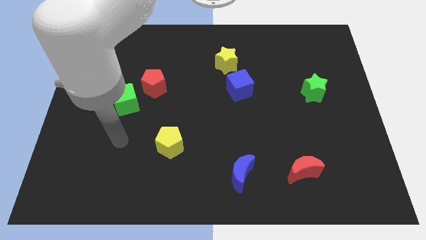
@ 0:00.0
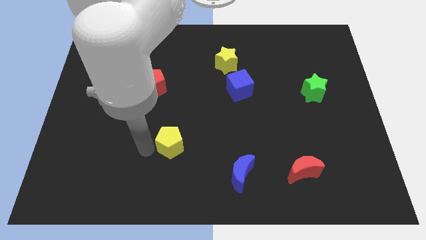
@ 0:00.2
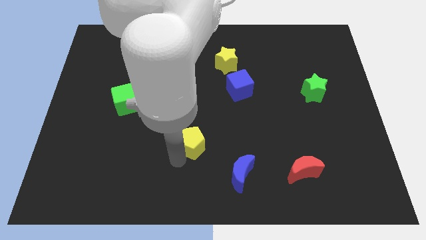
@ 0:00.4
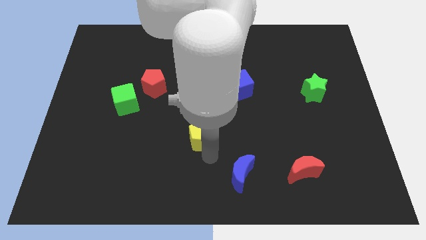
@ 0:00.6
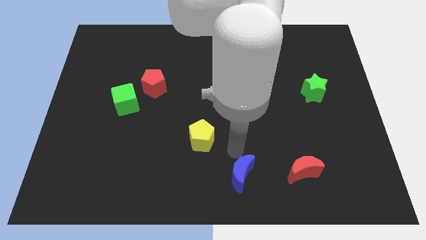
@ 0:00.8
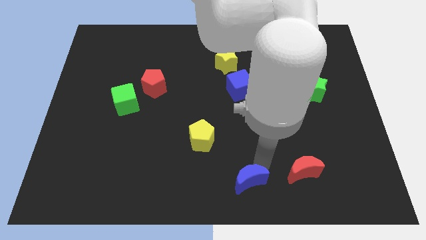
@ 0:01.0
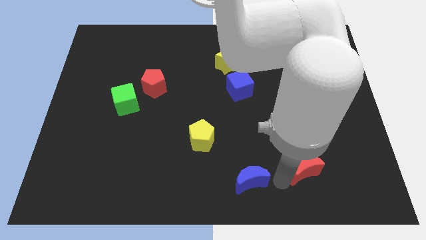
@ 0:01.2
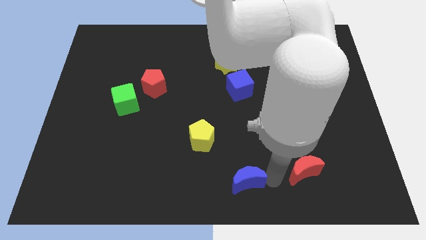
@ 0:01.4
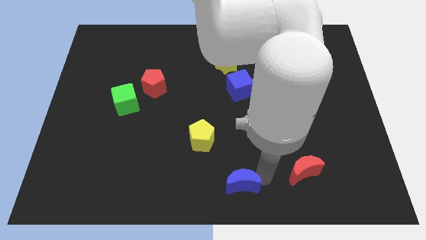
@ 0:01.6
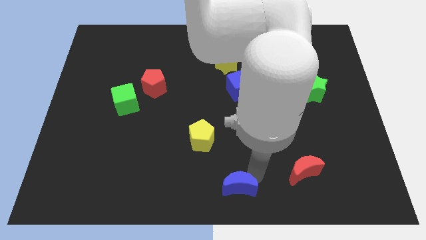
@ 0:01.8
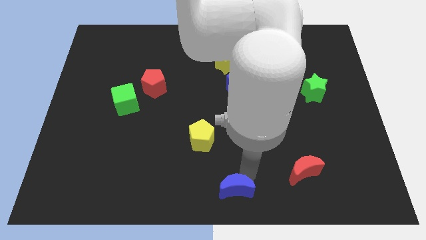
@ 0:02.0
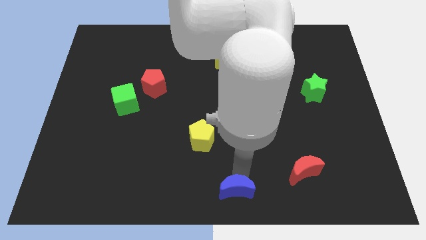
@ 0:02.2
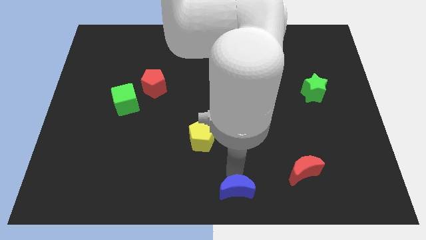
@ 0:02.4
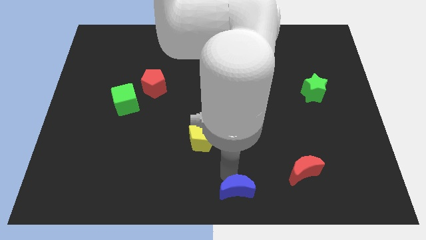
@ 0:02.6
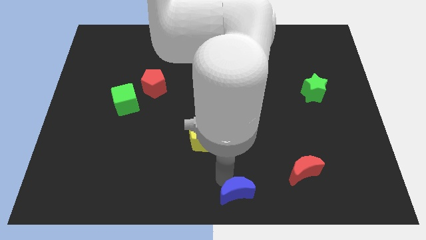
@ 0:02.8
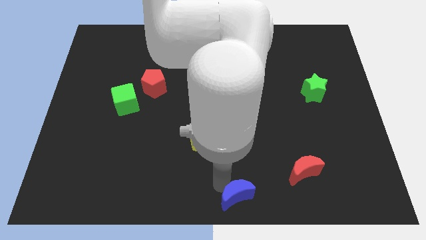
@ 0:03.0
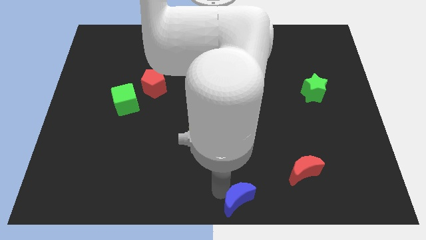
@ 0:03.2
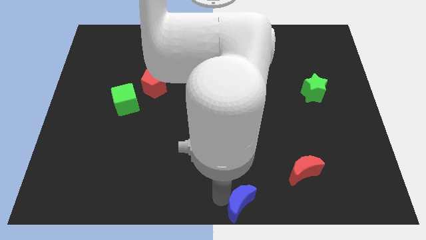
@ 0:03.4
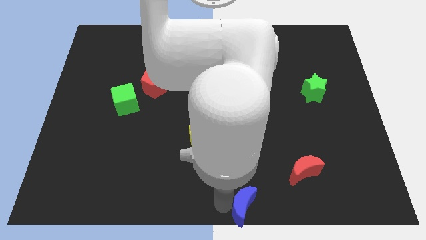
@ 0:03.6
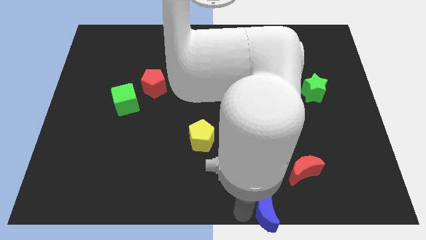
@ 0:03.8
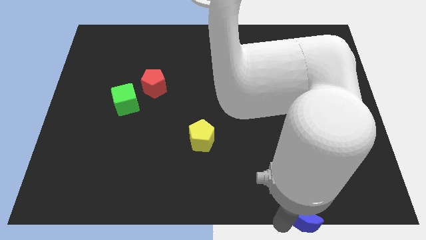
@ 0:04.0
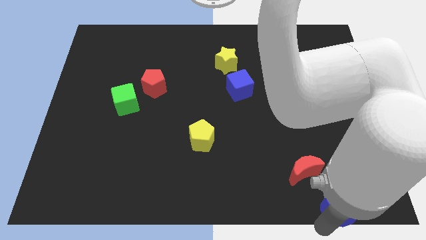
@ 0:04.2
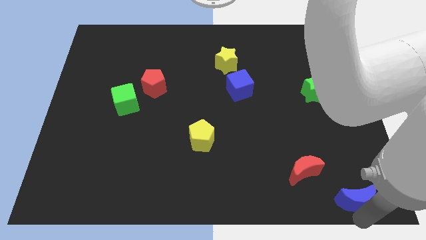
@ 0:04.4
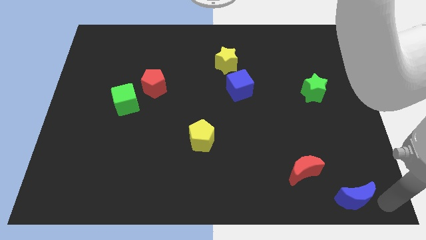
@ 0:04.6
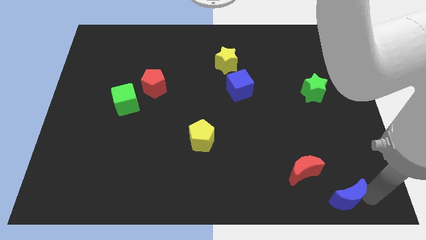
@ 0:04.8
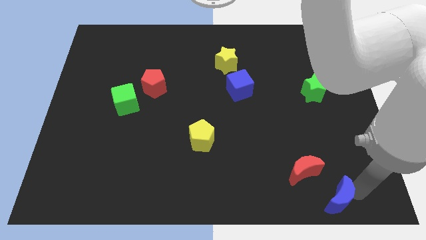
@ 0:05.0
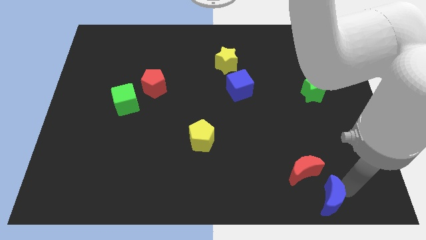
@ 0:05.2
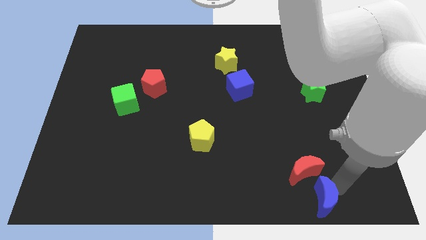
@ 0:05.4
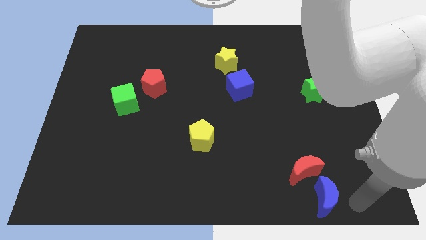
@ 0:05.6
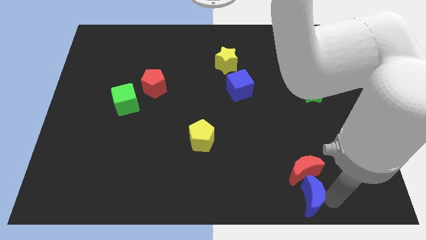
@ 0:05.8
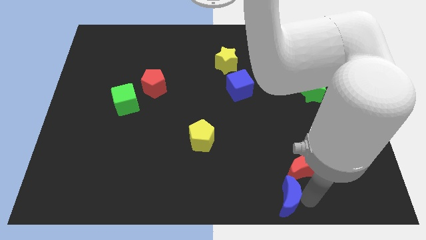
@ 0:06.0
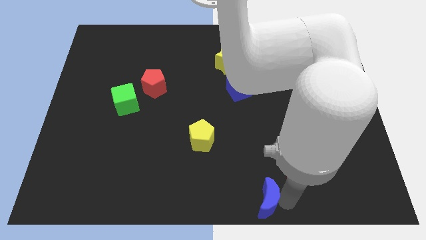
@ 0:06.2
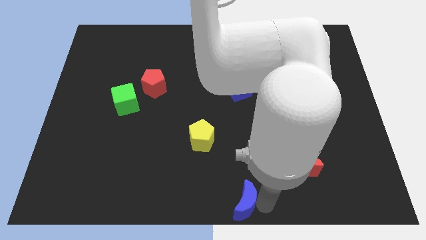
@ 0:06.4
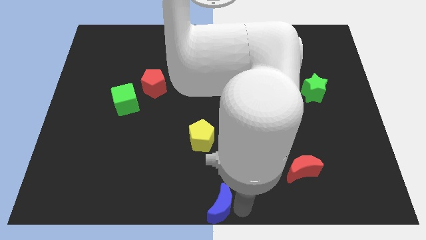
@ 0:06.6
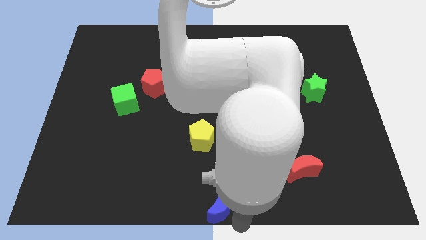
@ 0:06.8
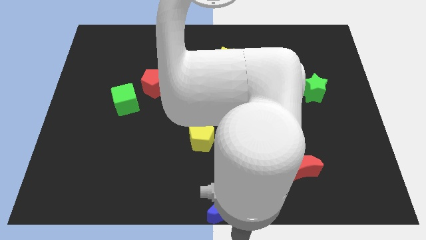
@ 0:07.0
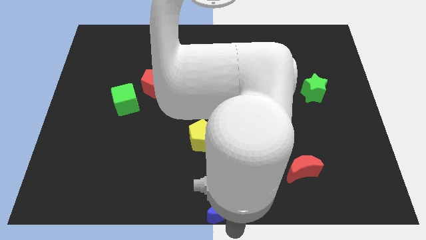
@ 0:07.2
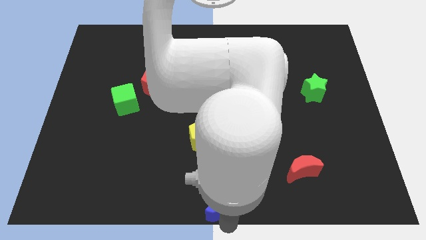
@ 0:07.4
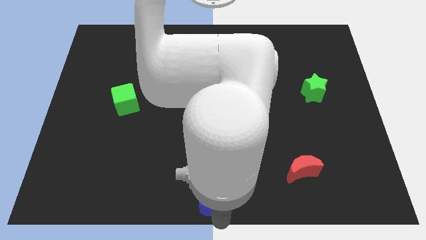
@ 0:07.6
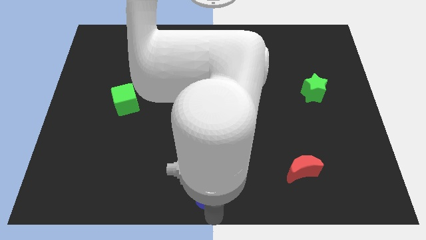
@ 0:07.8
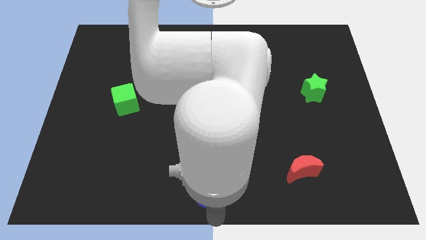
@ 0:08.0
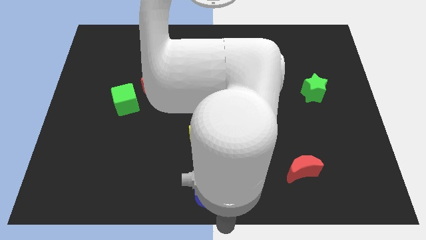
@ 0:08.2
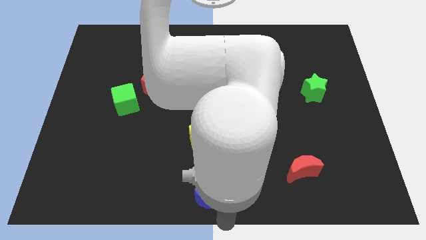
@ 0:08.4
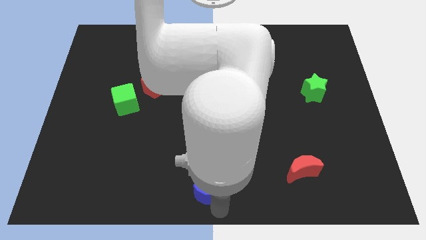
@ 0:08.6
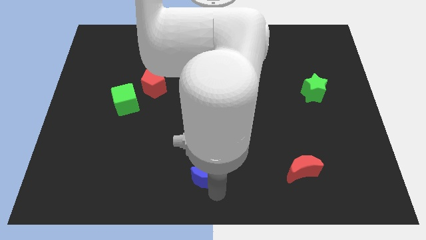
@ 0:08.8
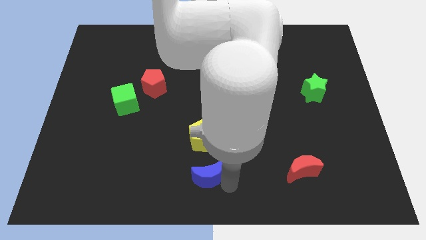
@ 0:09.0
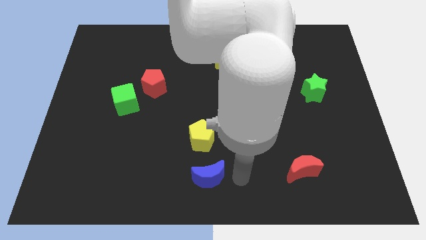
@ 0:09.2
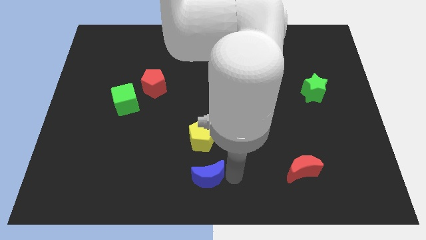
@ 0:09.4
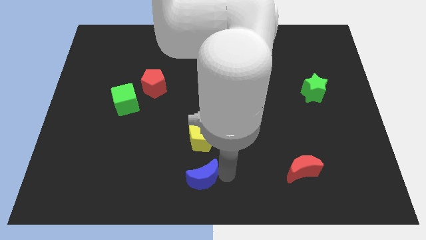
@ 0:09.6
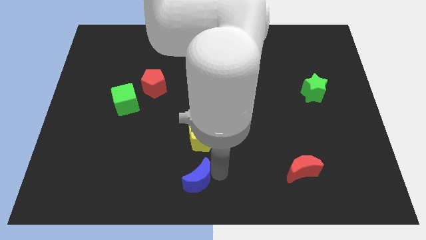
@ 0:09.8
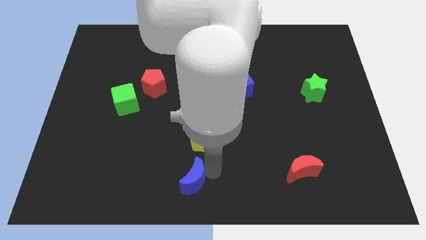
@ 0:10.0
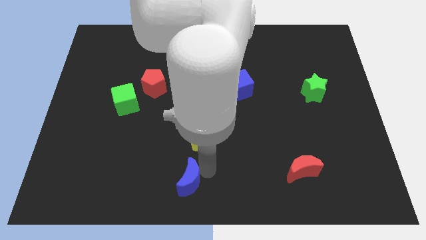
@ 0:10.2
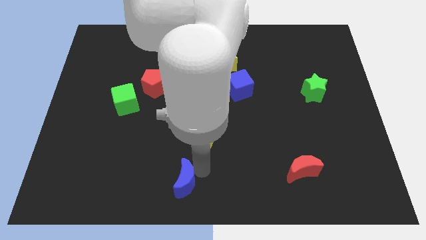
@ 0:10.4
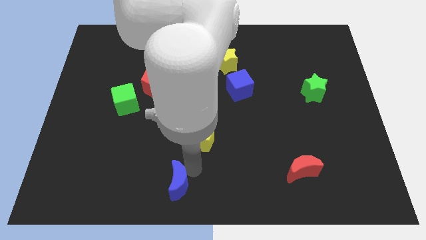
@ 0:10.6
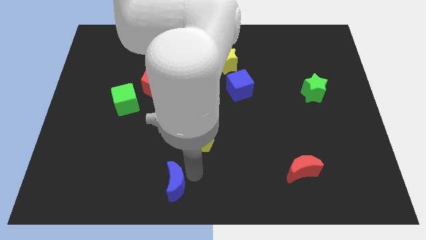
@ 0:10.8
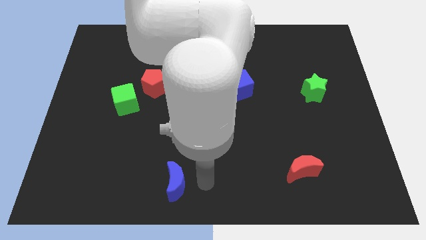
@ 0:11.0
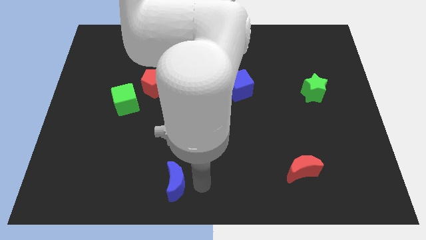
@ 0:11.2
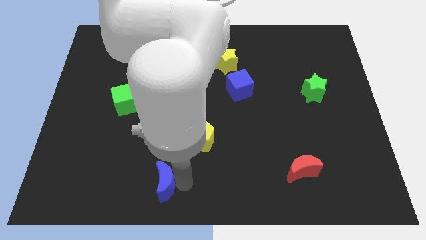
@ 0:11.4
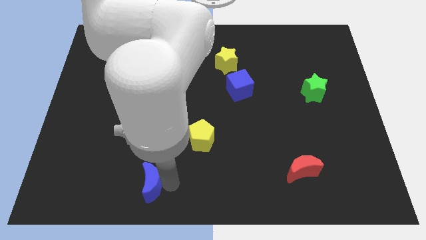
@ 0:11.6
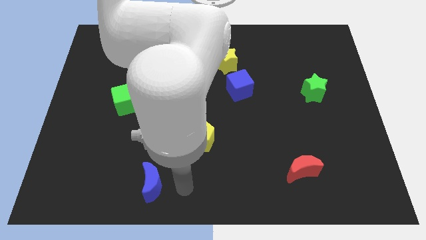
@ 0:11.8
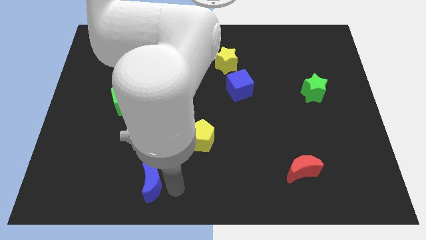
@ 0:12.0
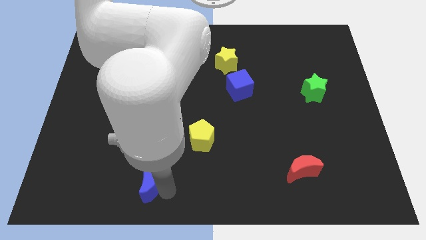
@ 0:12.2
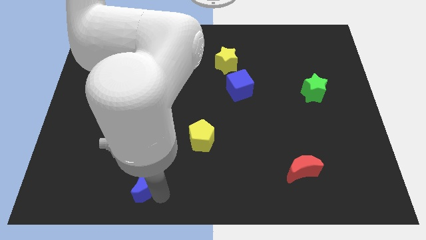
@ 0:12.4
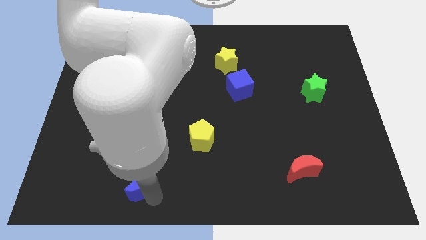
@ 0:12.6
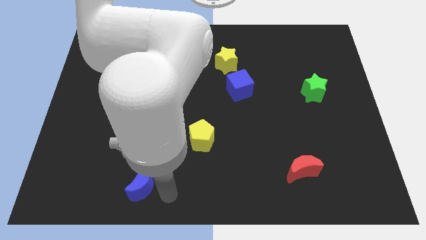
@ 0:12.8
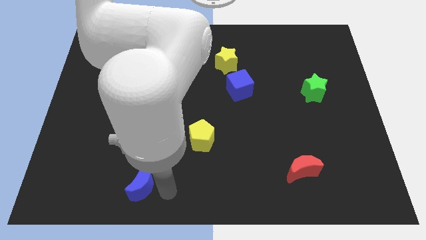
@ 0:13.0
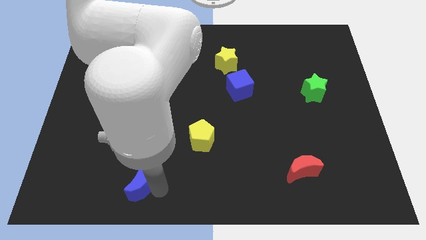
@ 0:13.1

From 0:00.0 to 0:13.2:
slide the blue moon left

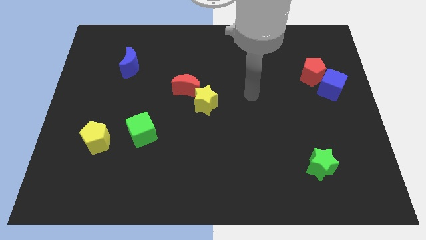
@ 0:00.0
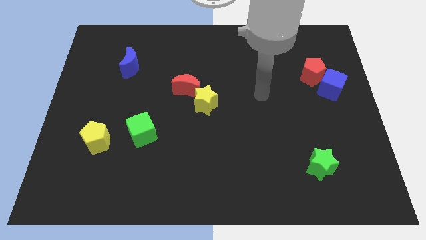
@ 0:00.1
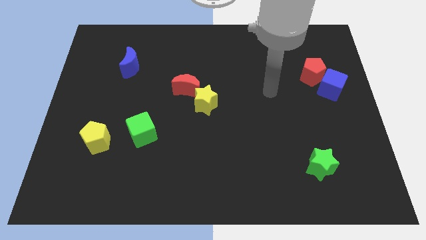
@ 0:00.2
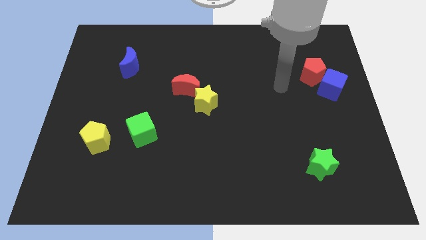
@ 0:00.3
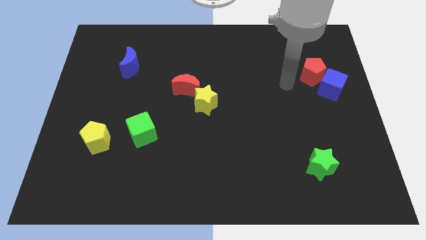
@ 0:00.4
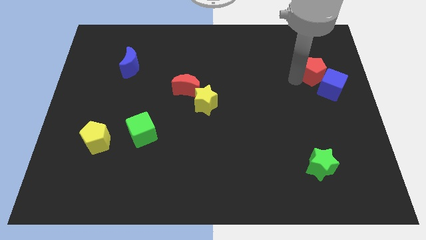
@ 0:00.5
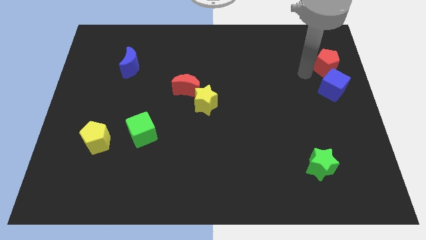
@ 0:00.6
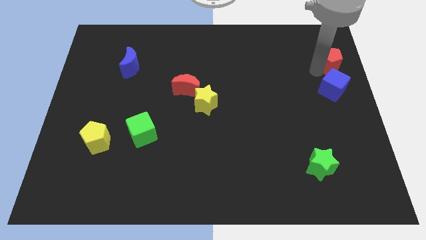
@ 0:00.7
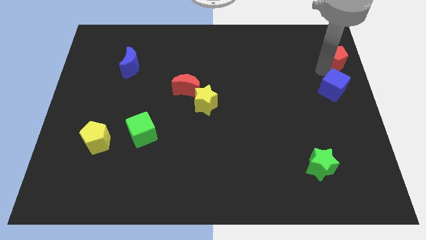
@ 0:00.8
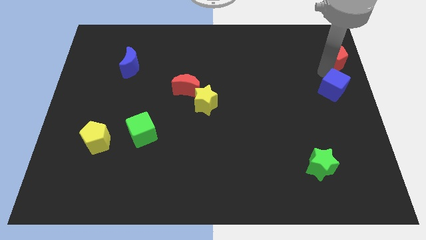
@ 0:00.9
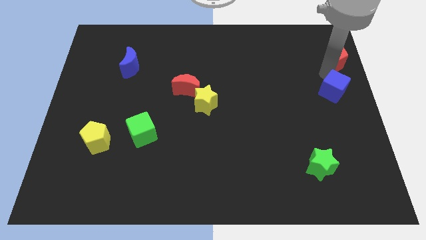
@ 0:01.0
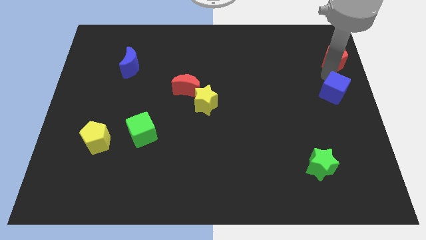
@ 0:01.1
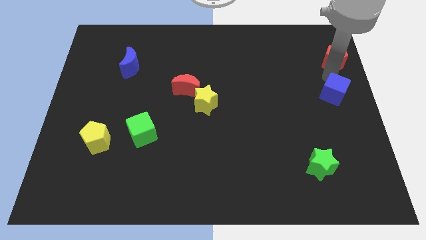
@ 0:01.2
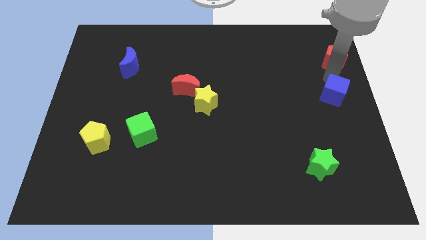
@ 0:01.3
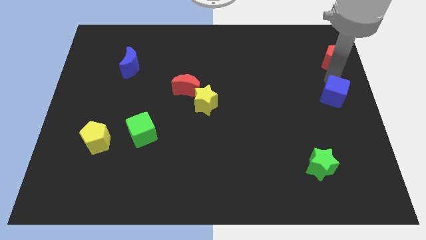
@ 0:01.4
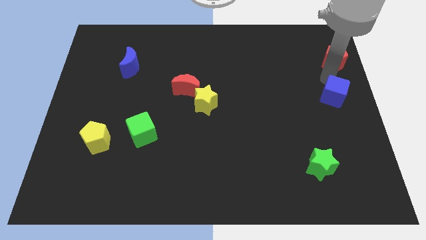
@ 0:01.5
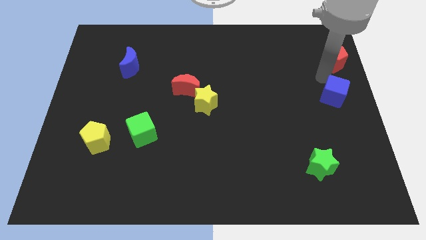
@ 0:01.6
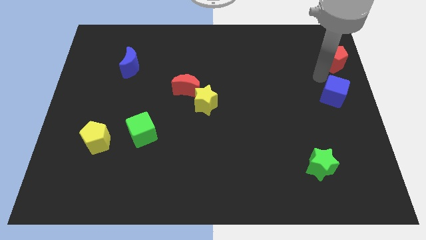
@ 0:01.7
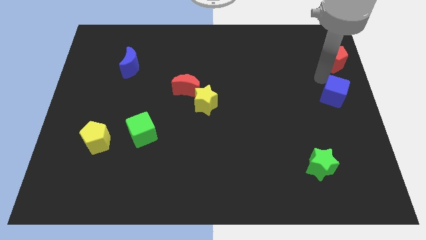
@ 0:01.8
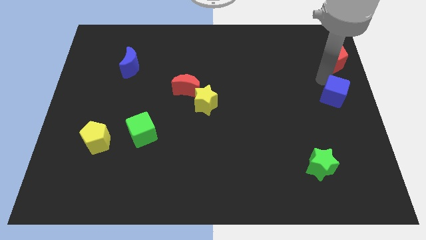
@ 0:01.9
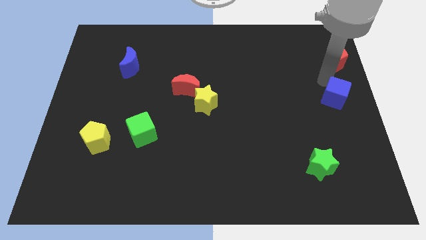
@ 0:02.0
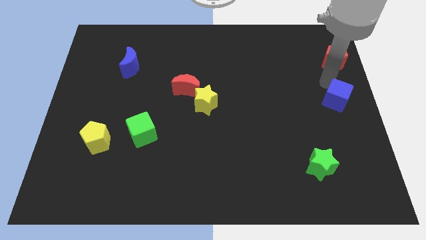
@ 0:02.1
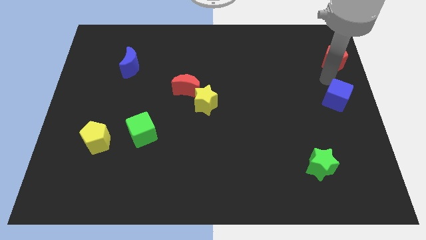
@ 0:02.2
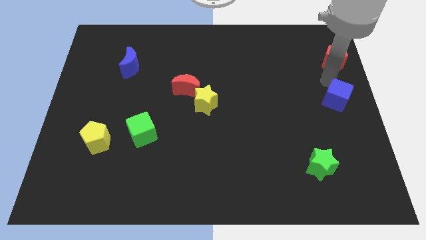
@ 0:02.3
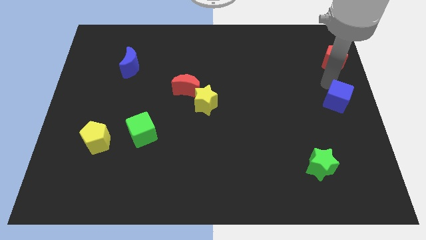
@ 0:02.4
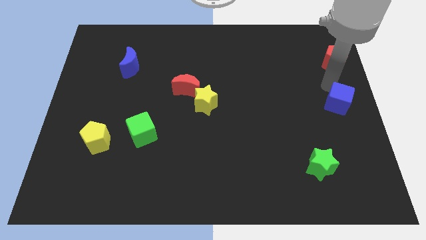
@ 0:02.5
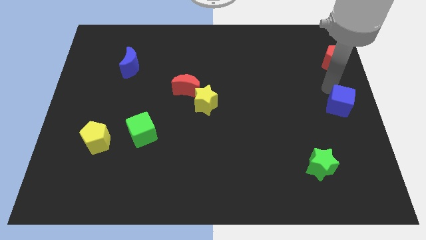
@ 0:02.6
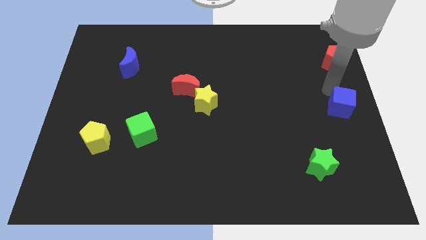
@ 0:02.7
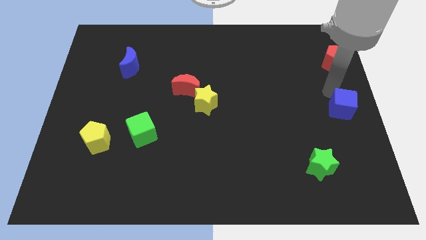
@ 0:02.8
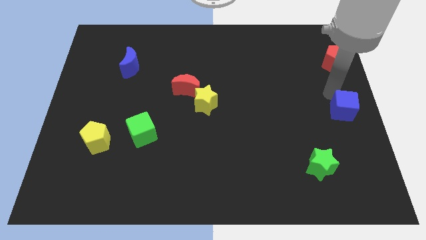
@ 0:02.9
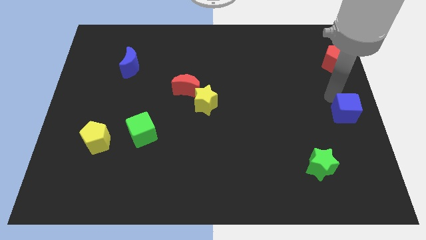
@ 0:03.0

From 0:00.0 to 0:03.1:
slightly slide the blue cube downwards
